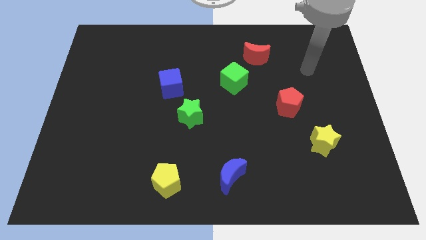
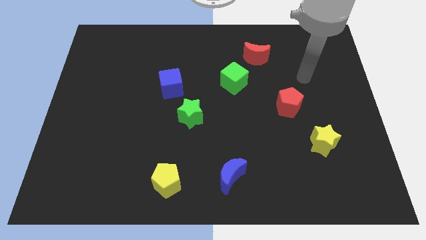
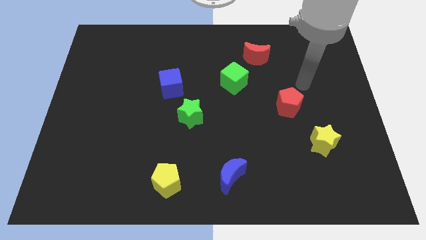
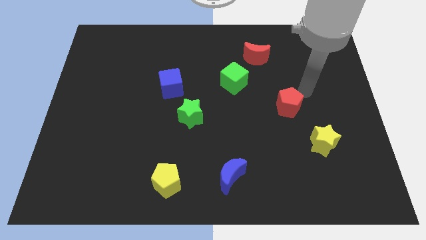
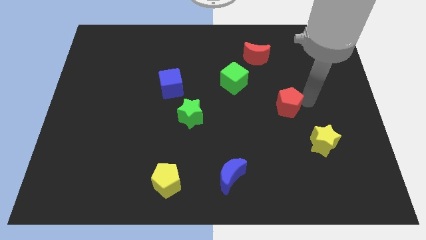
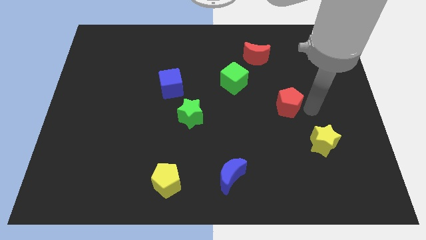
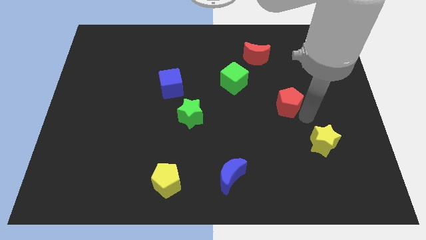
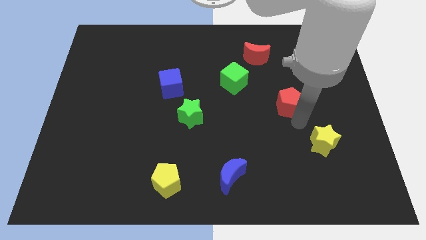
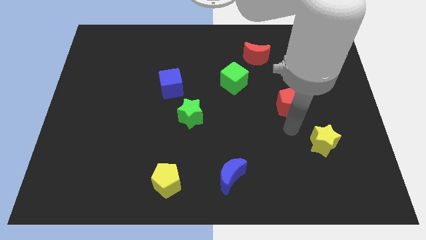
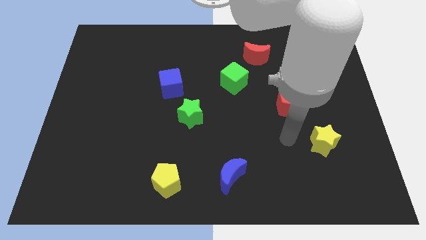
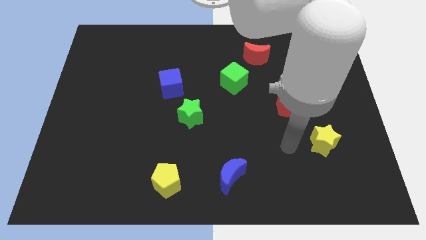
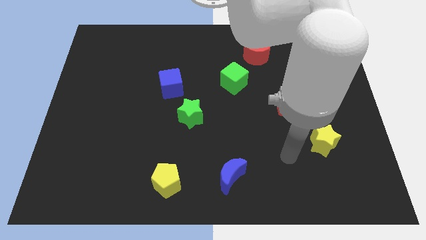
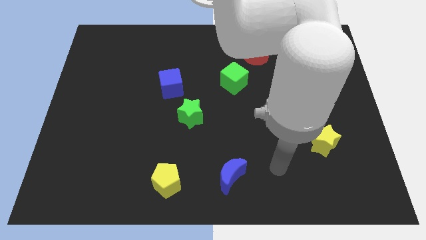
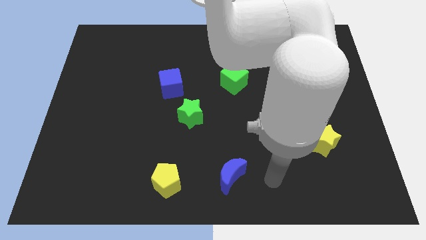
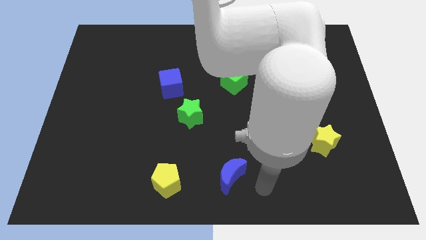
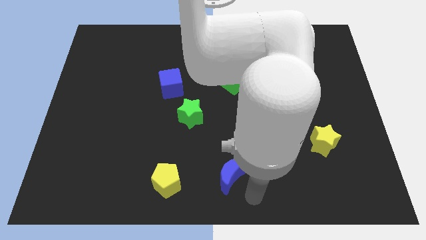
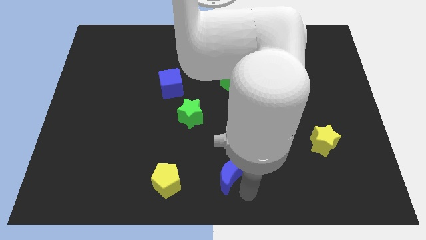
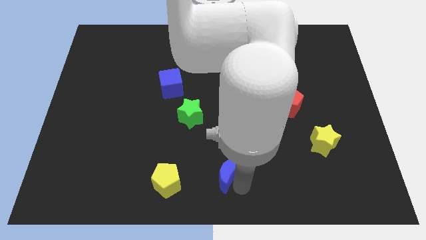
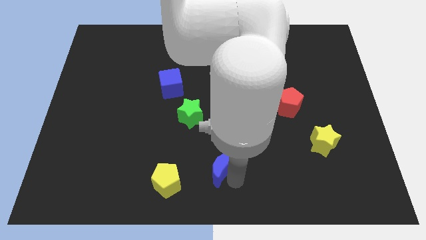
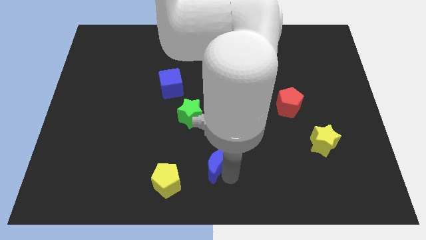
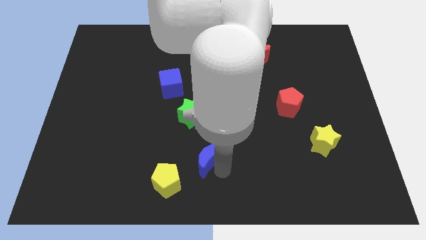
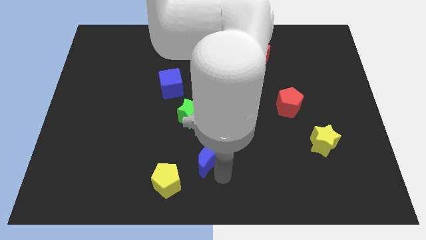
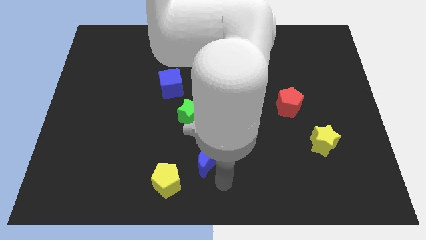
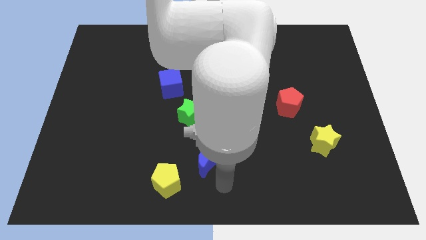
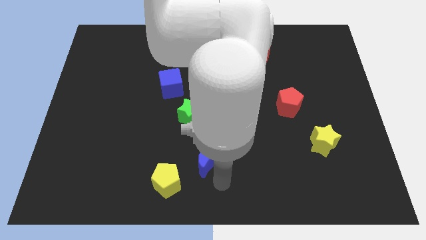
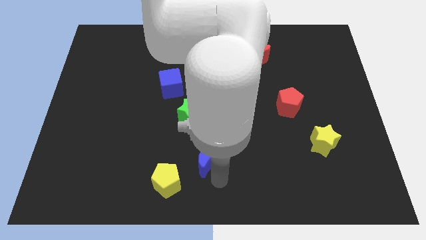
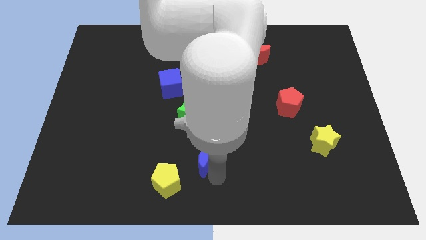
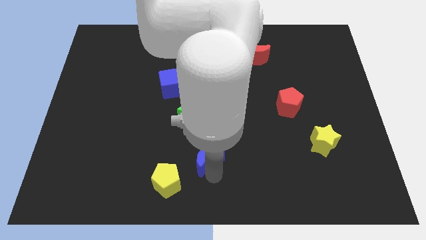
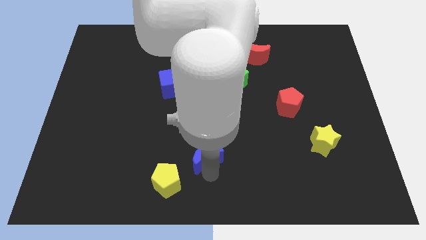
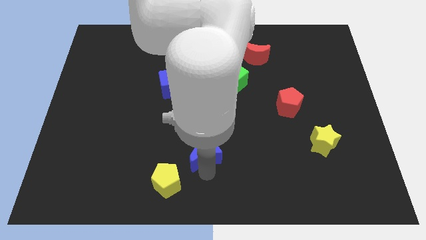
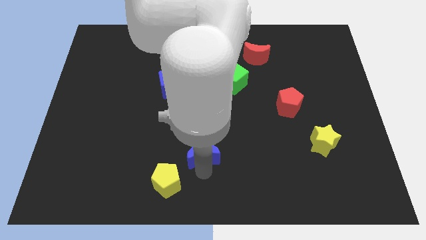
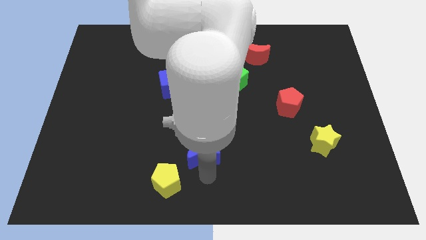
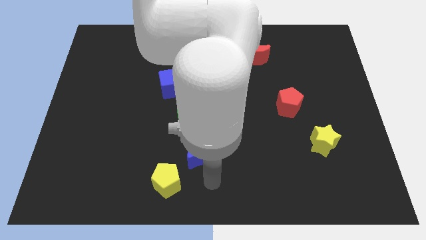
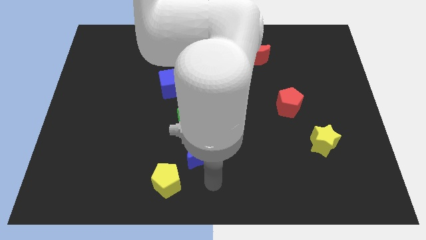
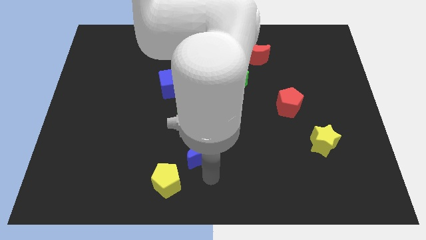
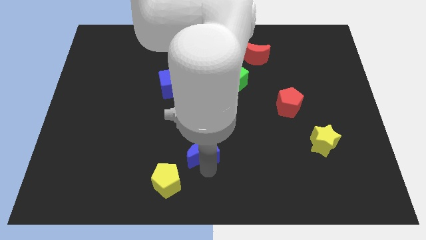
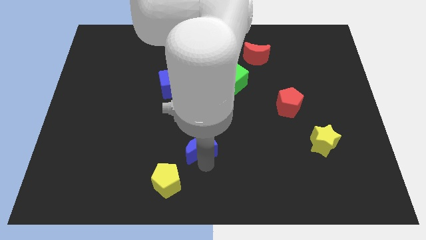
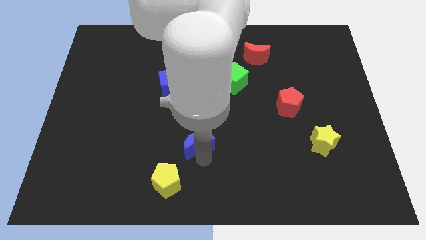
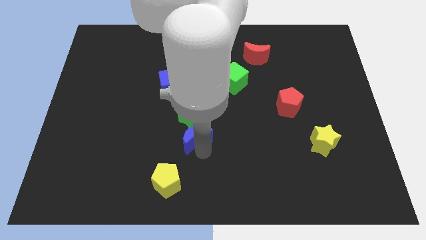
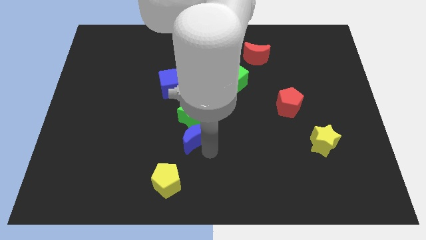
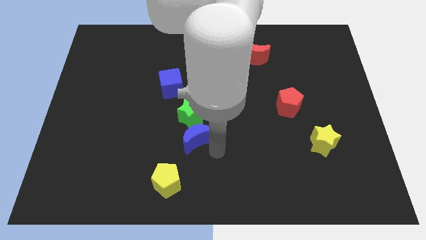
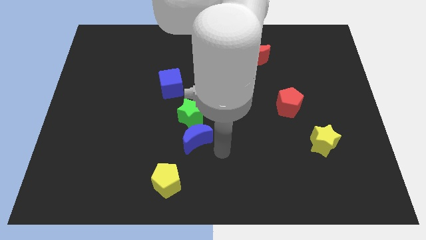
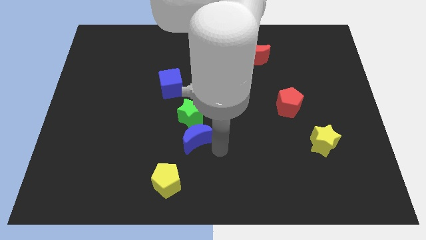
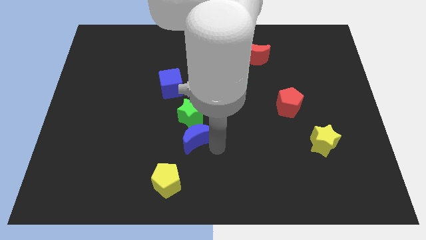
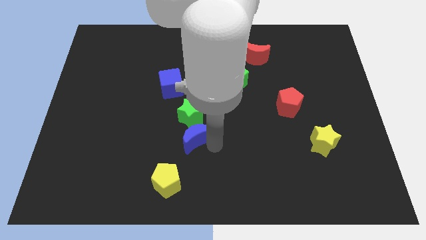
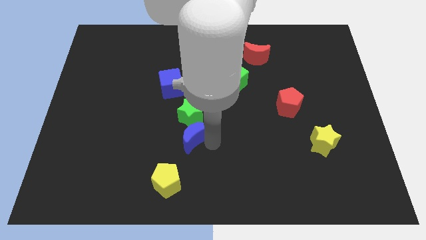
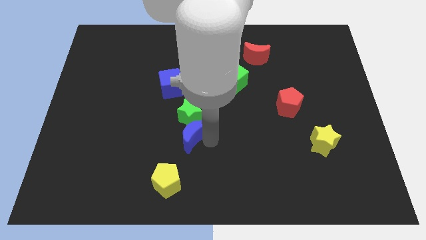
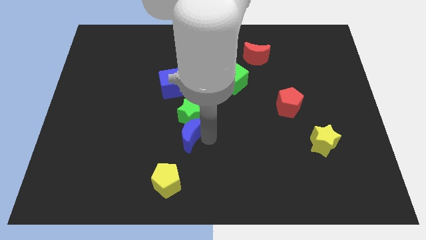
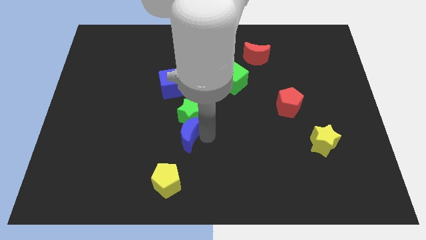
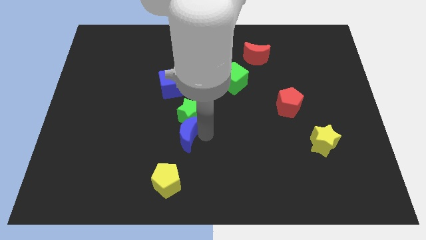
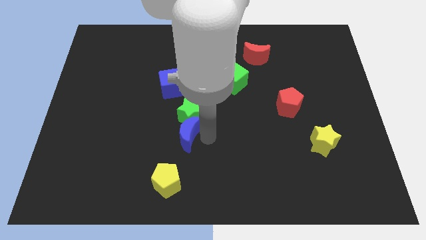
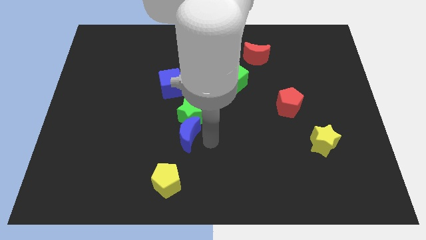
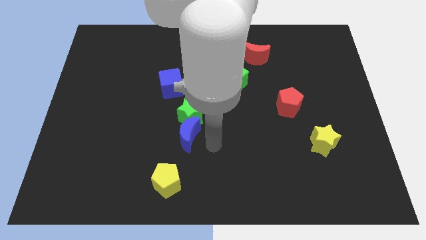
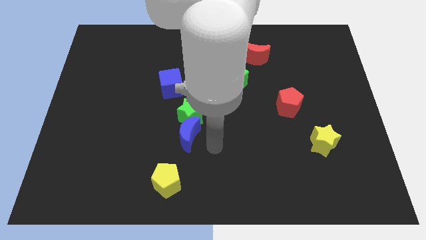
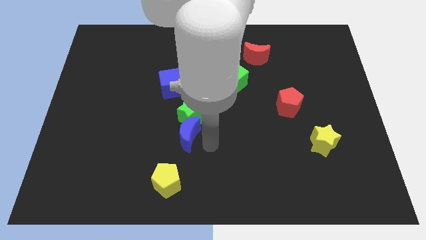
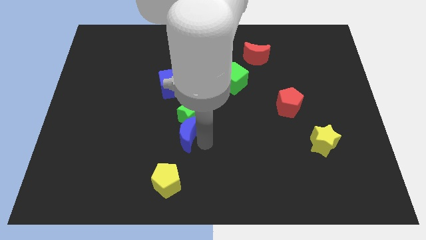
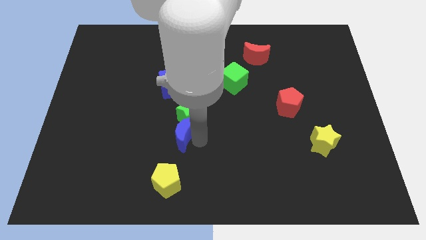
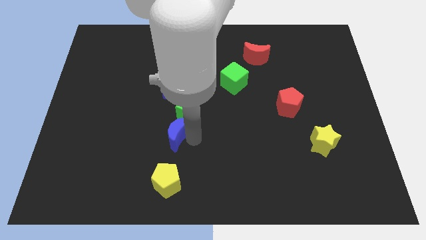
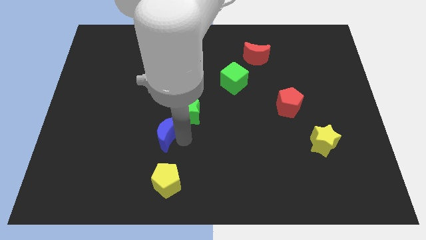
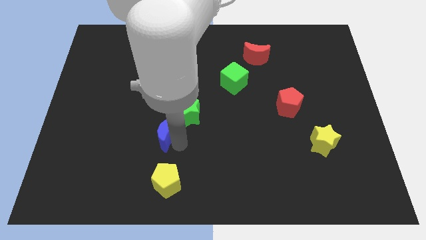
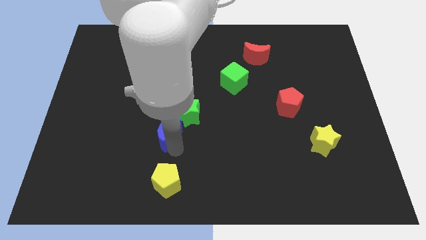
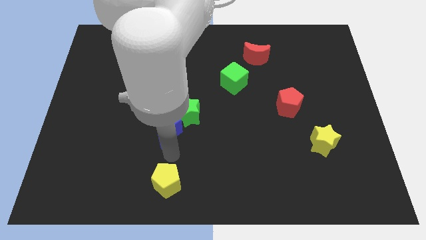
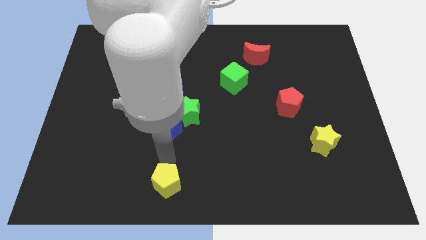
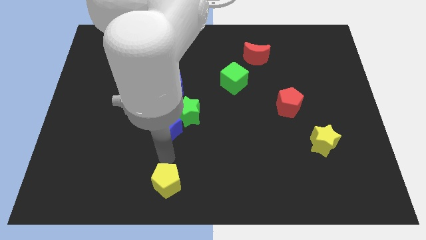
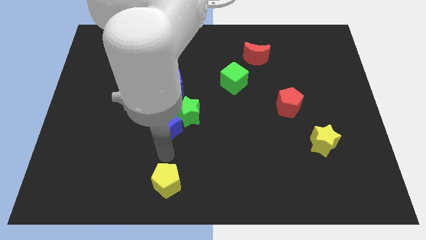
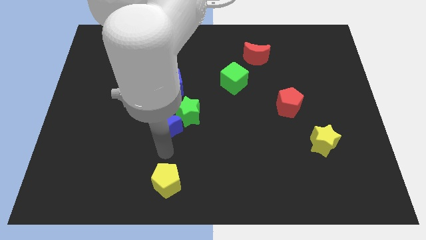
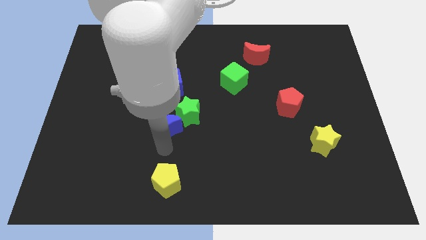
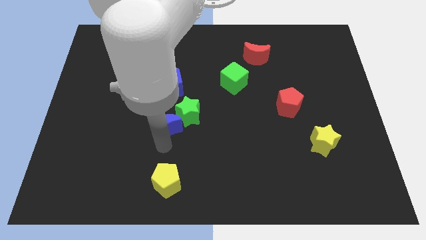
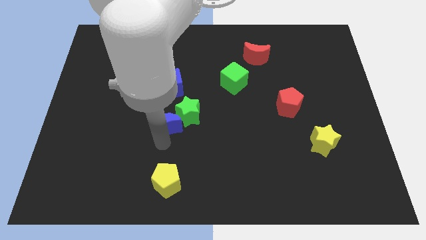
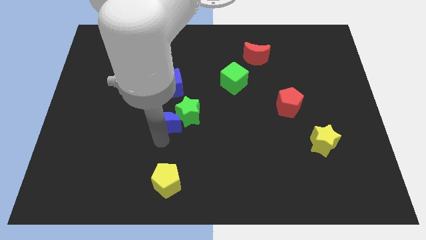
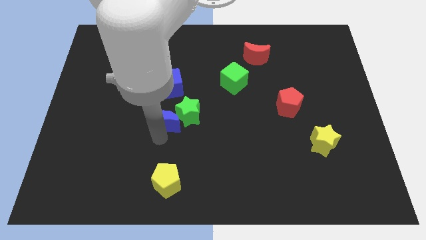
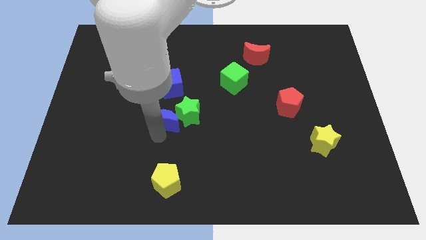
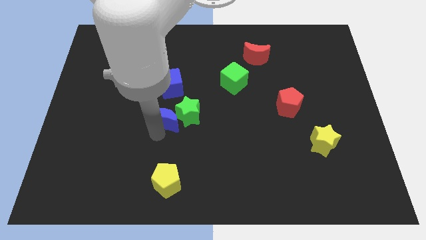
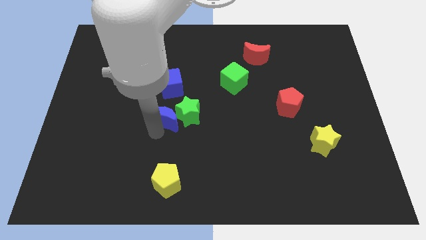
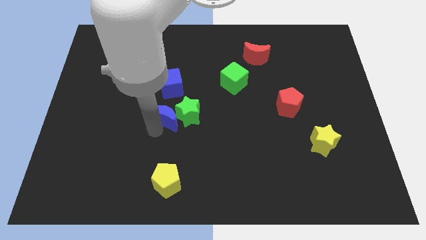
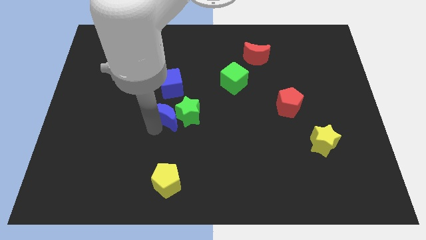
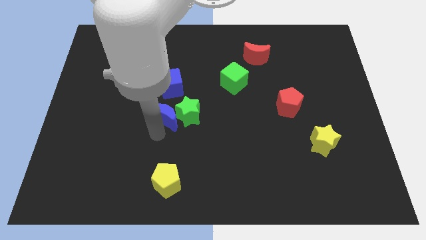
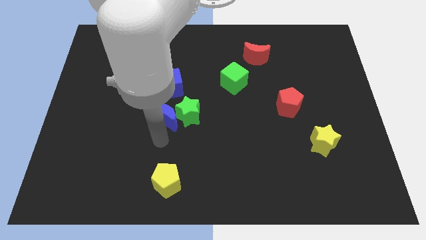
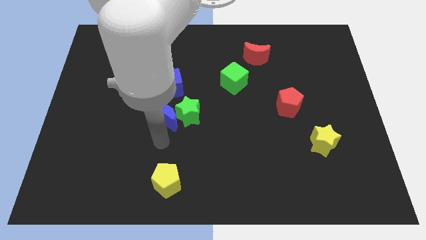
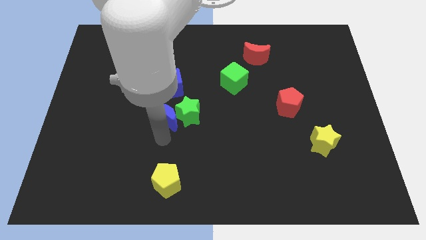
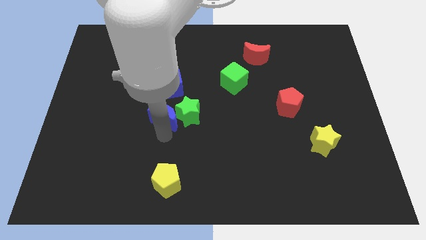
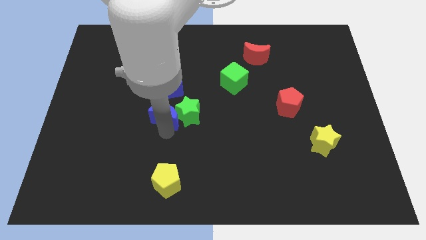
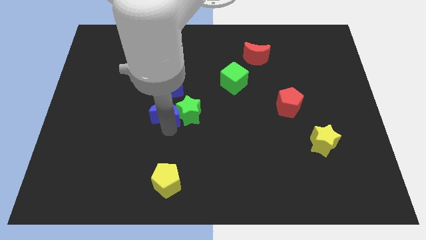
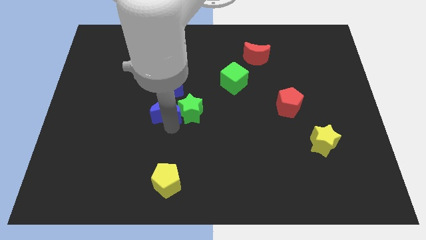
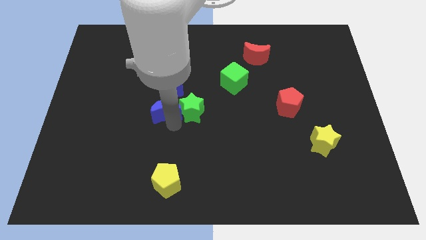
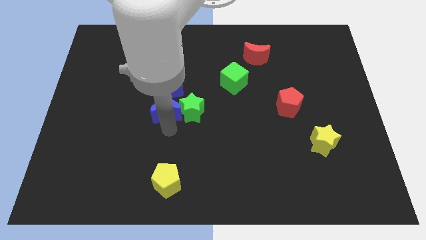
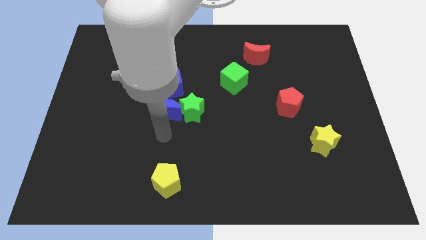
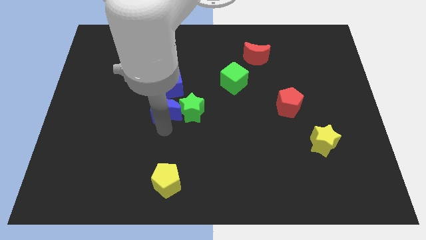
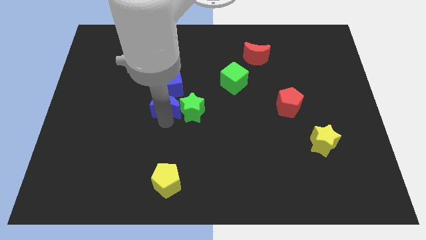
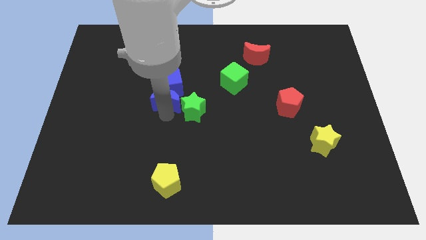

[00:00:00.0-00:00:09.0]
put the blue moon towards the blue cube
